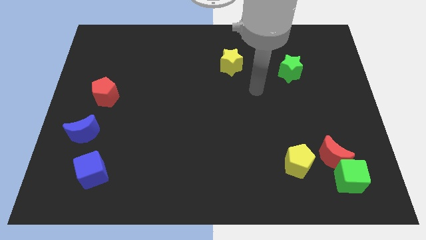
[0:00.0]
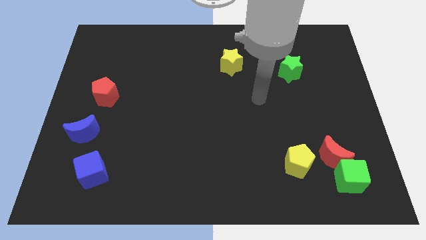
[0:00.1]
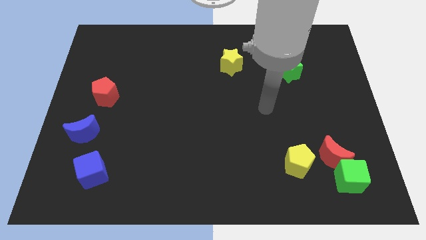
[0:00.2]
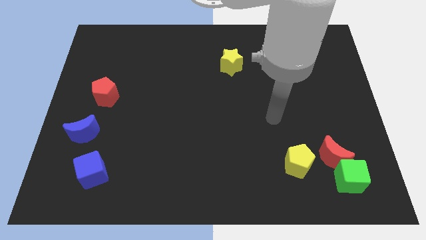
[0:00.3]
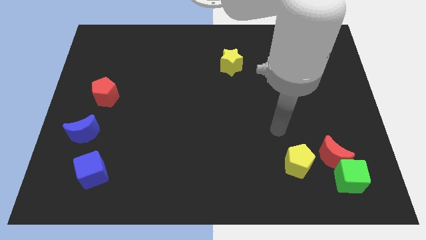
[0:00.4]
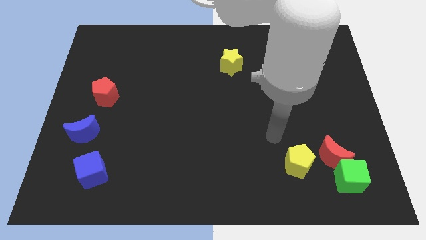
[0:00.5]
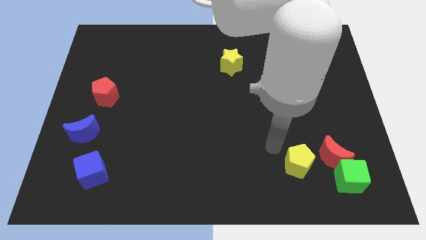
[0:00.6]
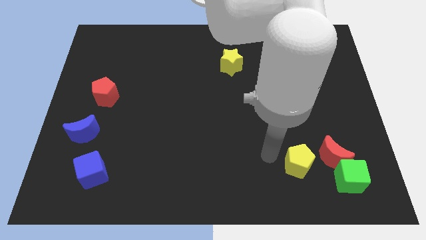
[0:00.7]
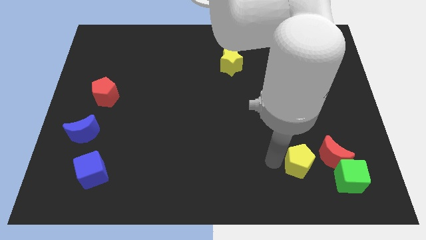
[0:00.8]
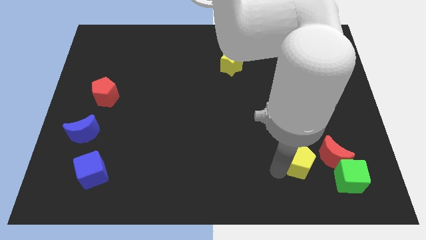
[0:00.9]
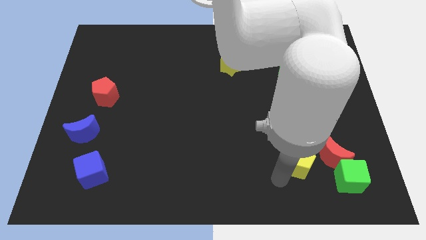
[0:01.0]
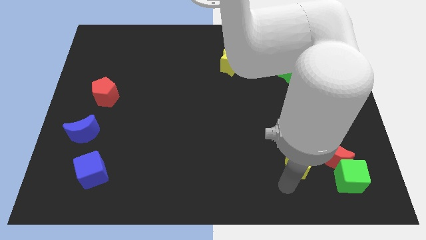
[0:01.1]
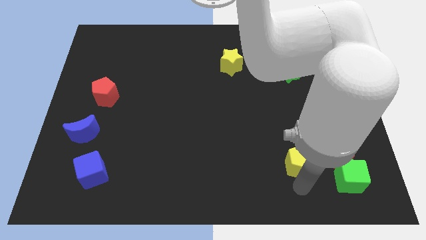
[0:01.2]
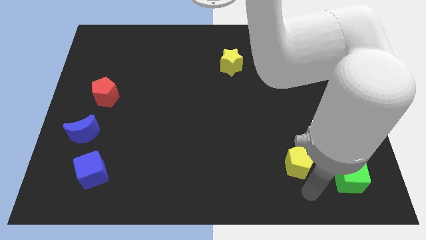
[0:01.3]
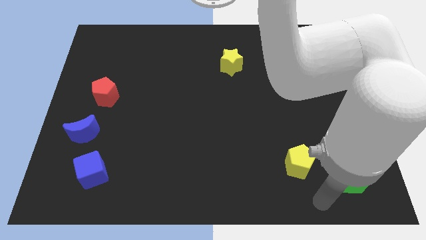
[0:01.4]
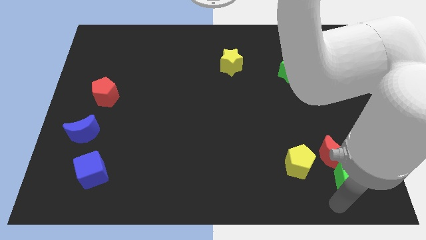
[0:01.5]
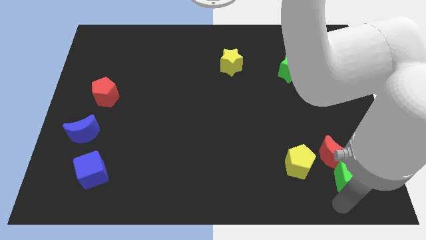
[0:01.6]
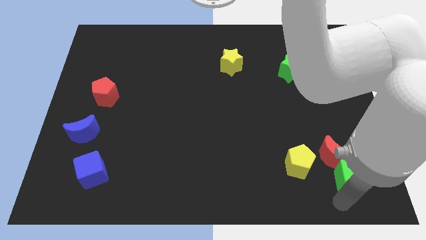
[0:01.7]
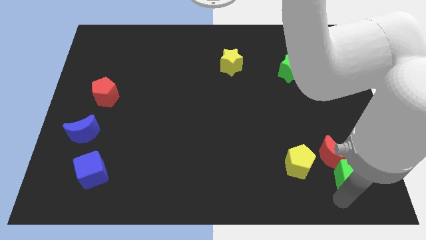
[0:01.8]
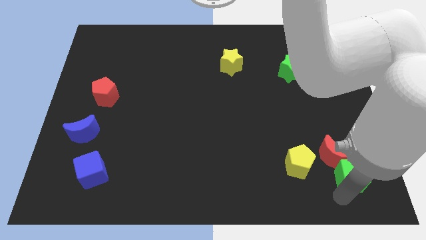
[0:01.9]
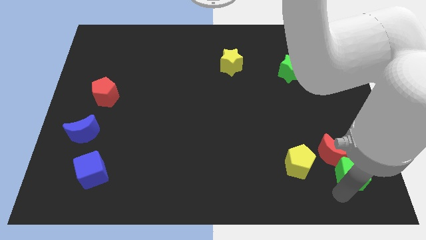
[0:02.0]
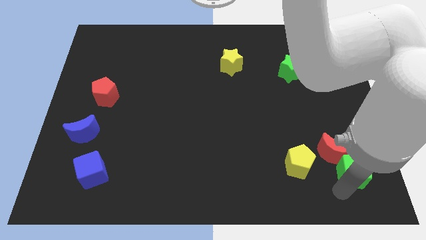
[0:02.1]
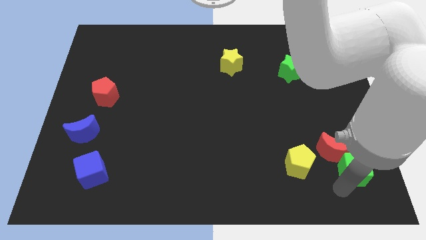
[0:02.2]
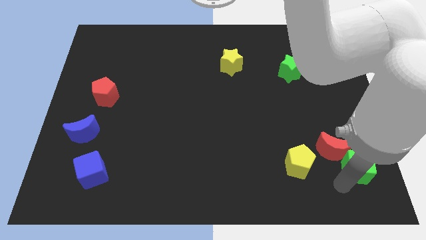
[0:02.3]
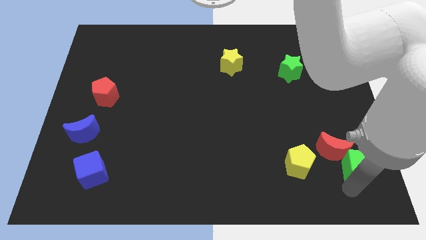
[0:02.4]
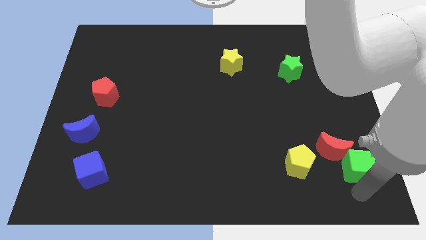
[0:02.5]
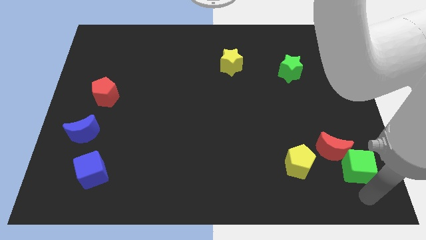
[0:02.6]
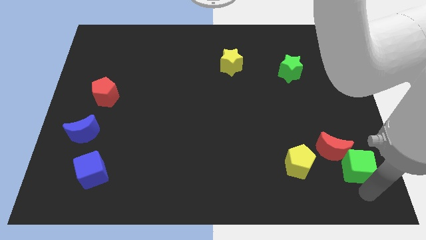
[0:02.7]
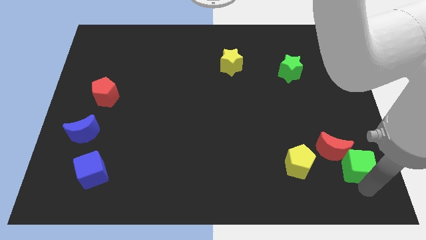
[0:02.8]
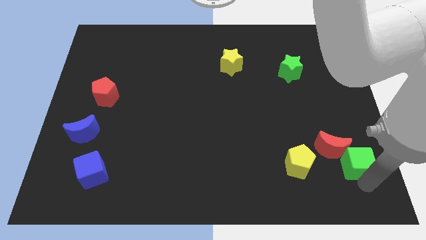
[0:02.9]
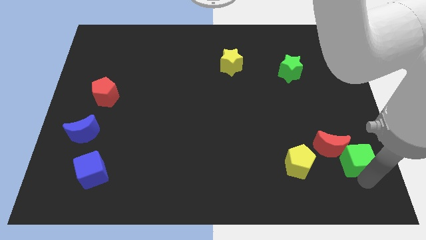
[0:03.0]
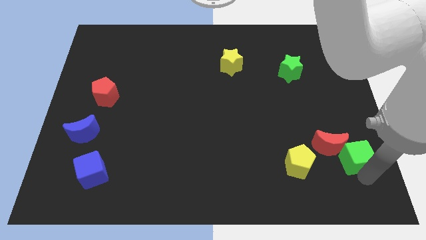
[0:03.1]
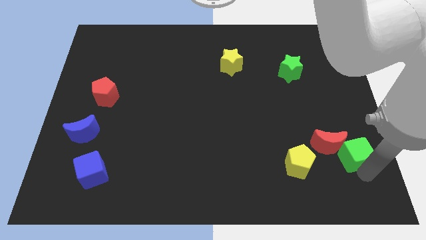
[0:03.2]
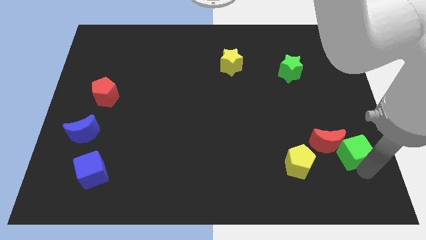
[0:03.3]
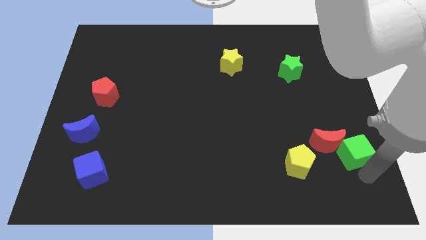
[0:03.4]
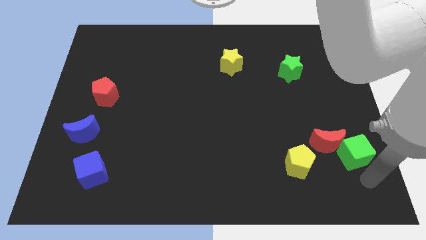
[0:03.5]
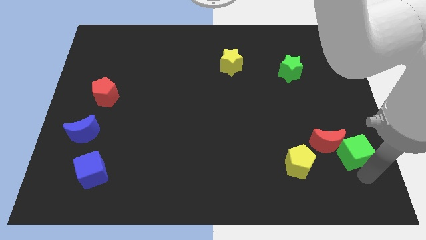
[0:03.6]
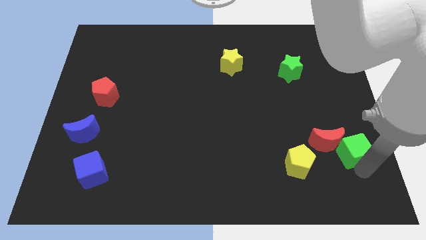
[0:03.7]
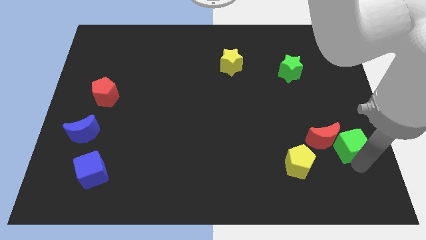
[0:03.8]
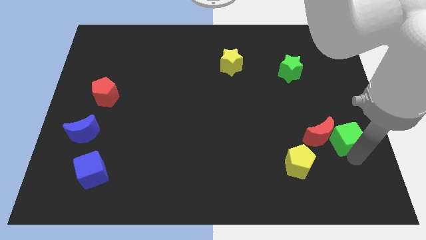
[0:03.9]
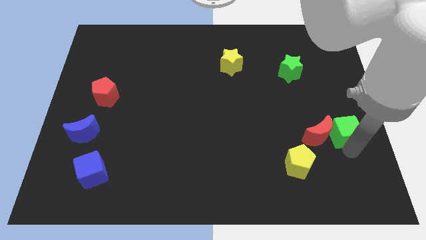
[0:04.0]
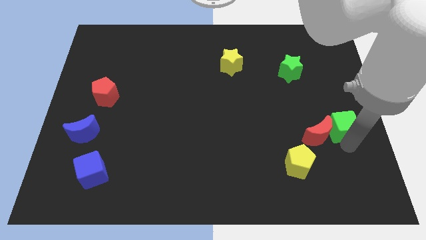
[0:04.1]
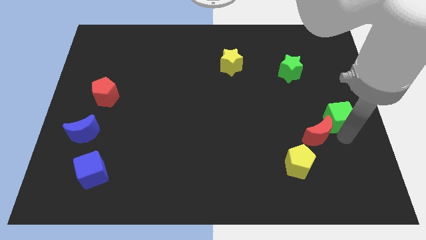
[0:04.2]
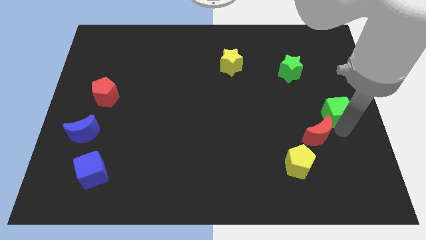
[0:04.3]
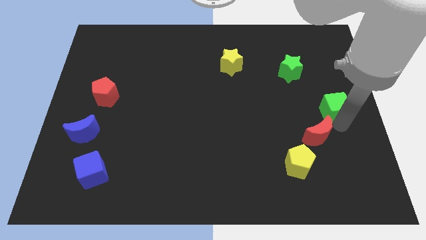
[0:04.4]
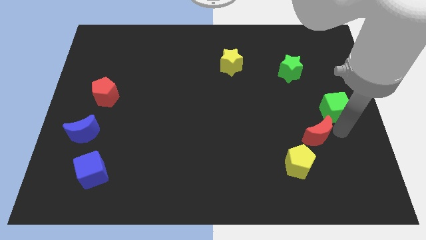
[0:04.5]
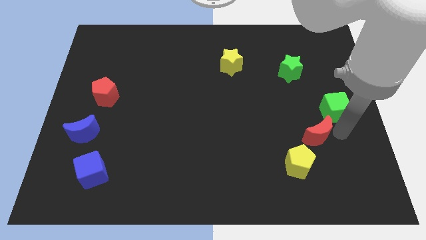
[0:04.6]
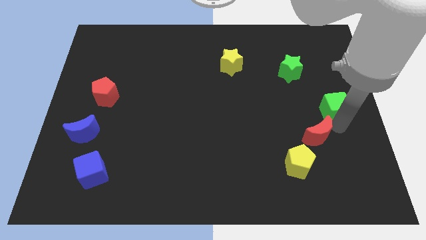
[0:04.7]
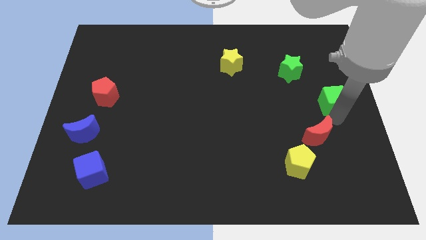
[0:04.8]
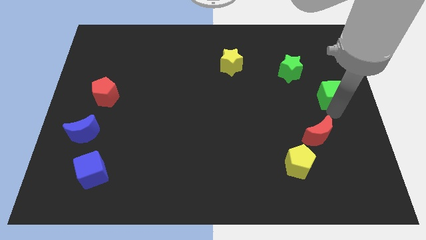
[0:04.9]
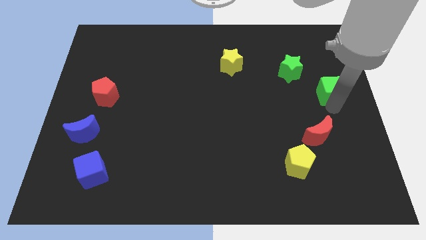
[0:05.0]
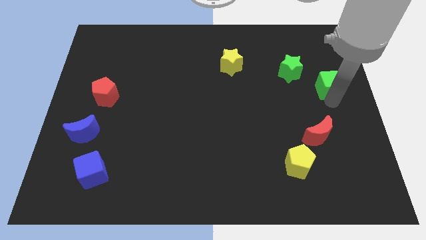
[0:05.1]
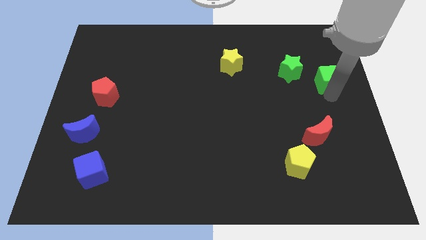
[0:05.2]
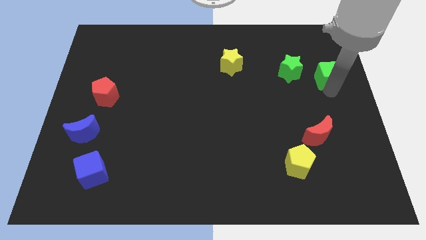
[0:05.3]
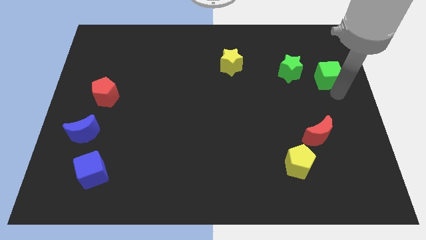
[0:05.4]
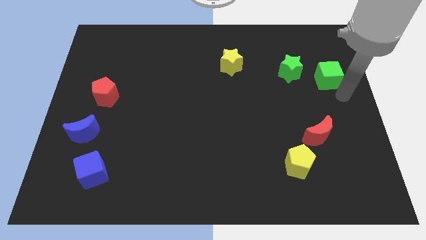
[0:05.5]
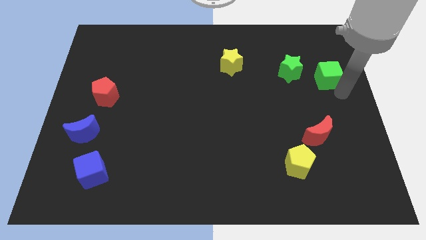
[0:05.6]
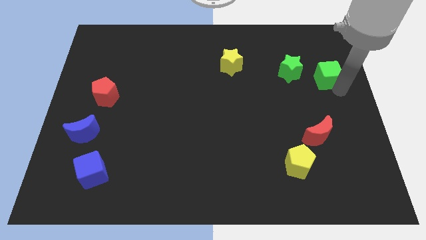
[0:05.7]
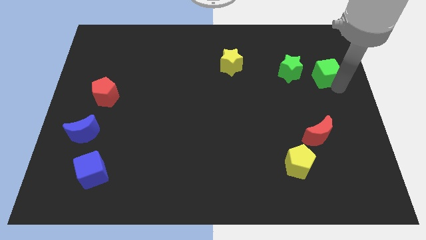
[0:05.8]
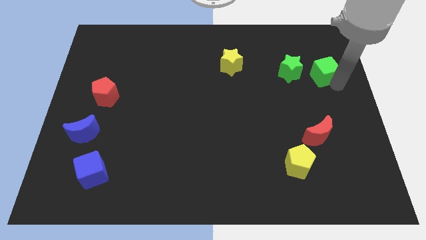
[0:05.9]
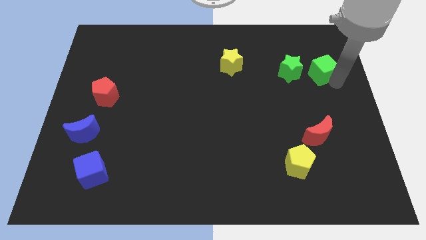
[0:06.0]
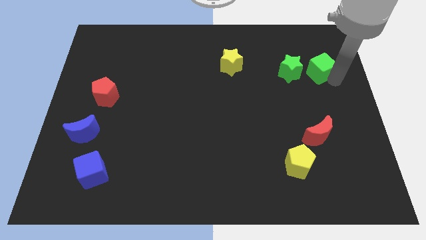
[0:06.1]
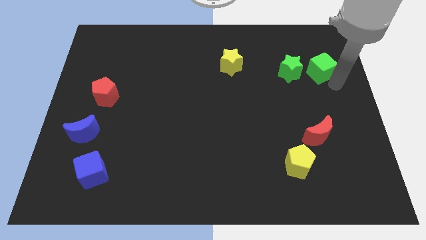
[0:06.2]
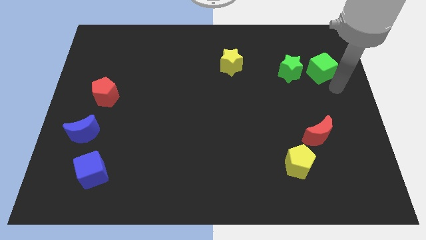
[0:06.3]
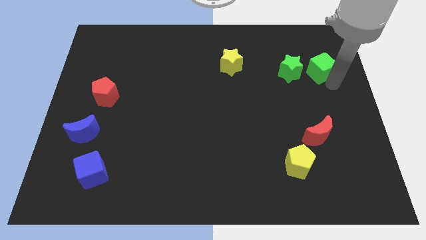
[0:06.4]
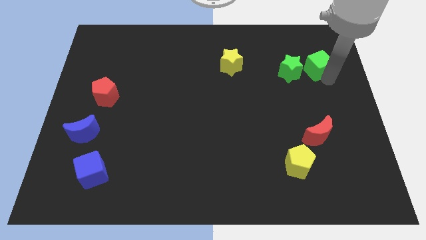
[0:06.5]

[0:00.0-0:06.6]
push the green cube to the top right of the green star
